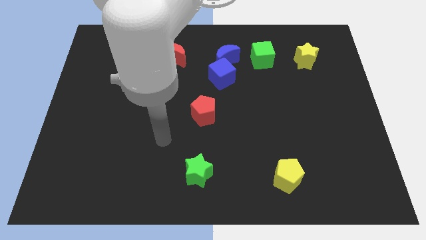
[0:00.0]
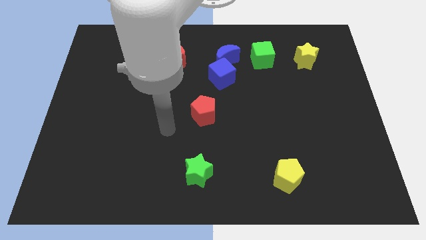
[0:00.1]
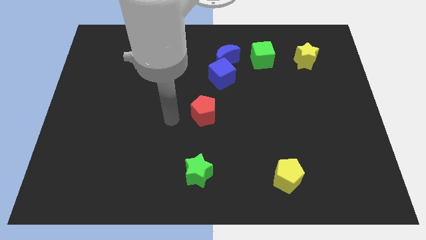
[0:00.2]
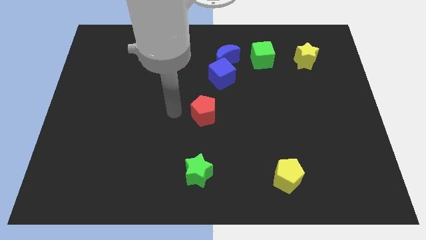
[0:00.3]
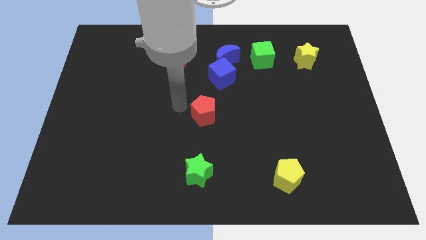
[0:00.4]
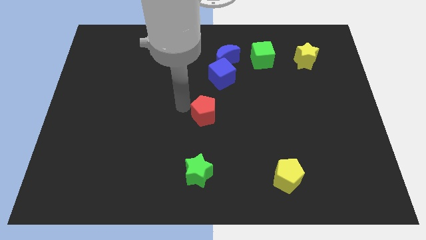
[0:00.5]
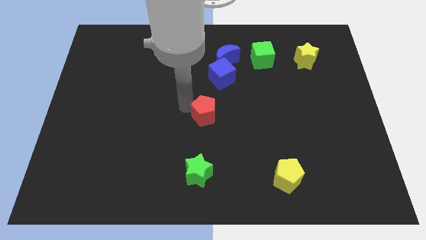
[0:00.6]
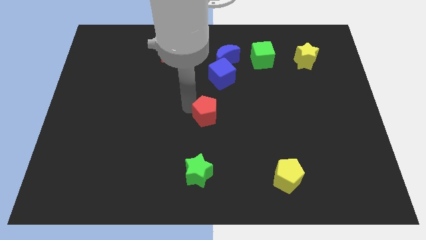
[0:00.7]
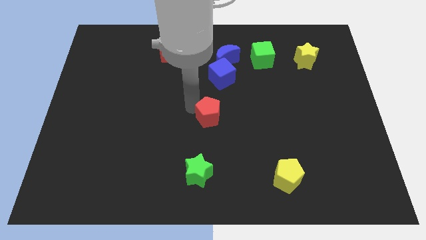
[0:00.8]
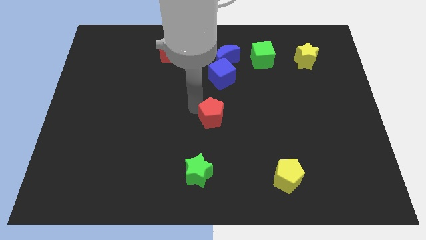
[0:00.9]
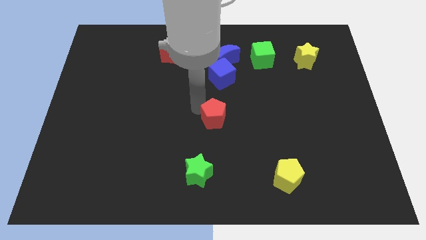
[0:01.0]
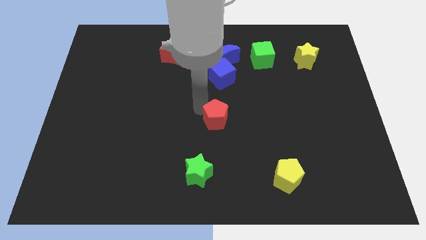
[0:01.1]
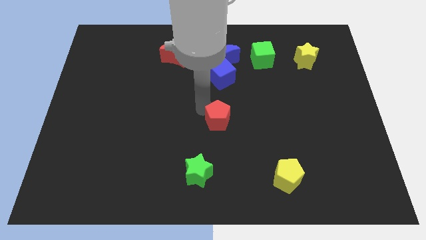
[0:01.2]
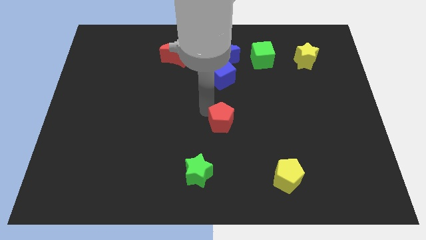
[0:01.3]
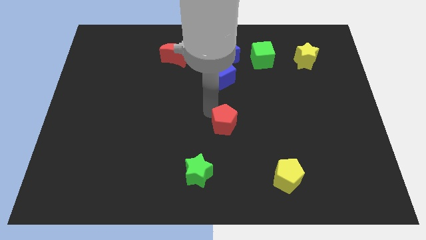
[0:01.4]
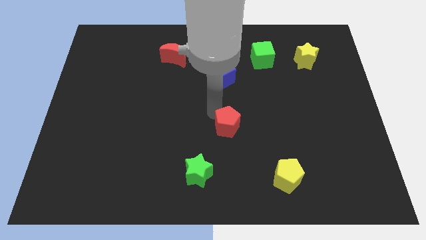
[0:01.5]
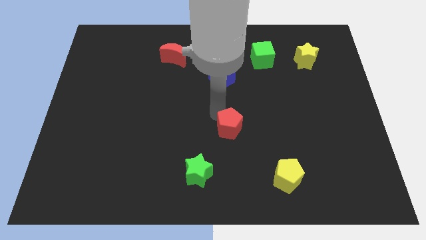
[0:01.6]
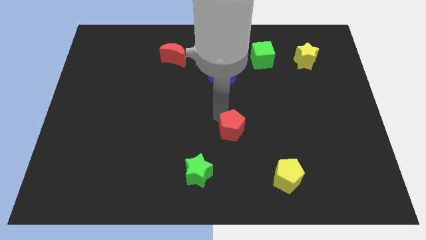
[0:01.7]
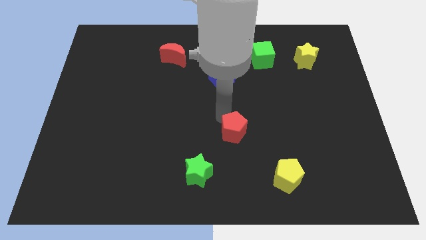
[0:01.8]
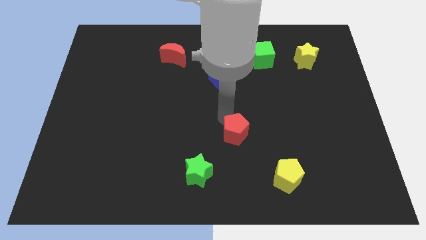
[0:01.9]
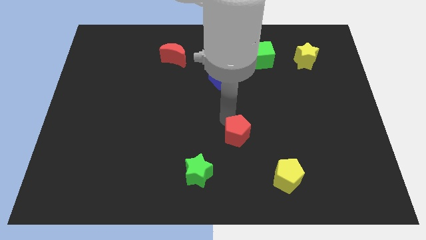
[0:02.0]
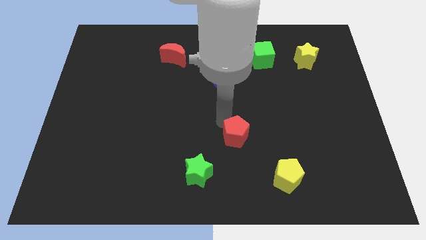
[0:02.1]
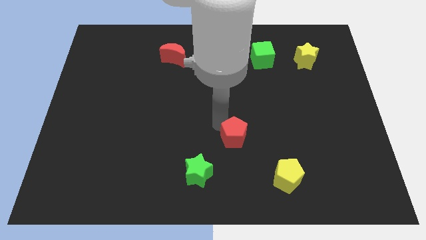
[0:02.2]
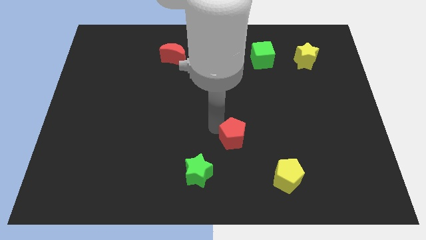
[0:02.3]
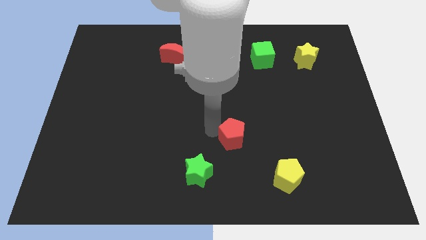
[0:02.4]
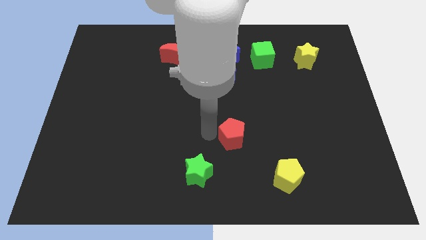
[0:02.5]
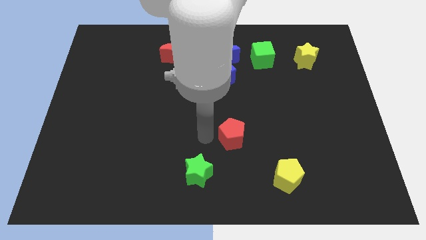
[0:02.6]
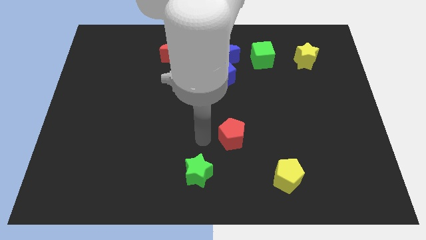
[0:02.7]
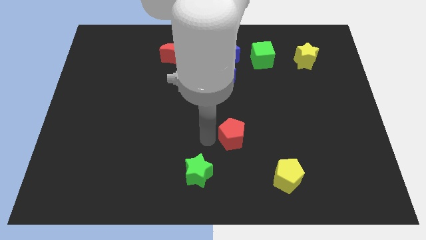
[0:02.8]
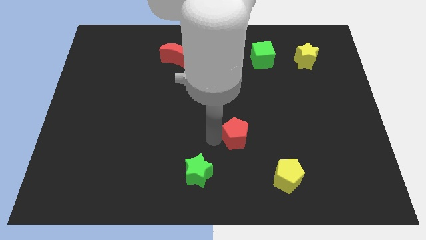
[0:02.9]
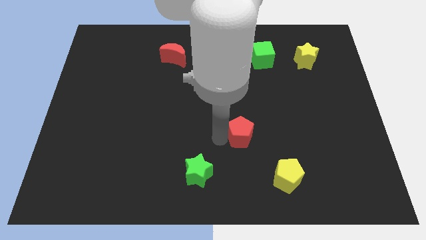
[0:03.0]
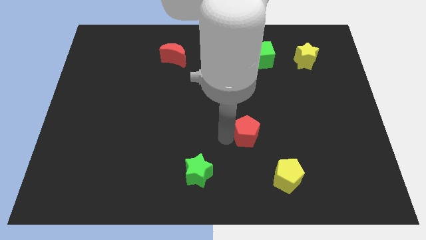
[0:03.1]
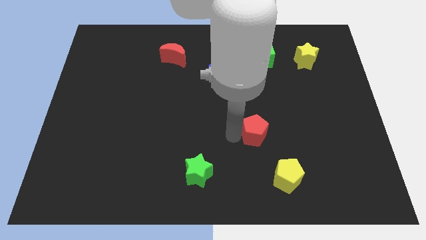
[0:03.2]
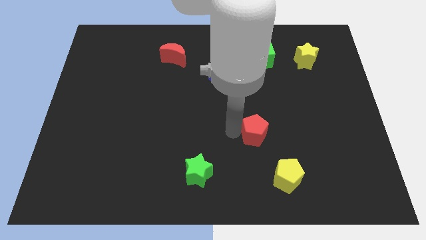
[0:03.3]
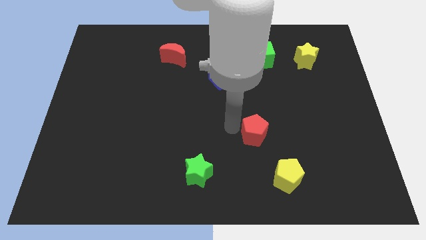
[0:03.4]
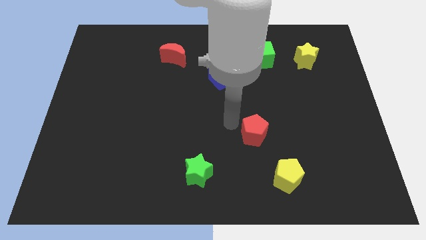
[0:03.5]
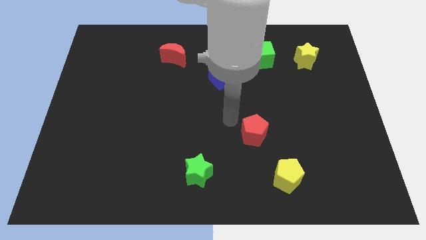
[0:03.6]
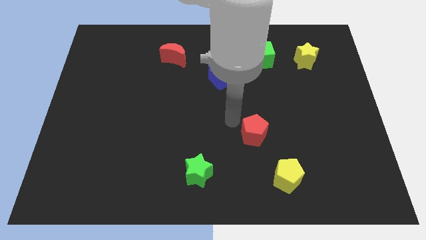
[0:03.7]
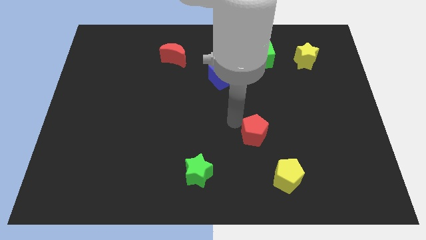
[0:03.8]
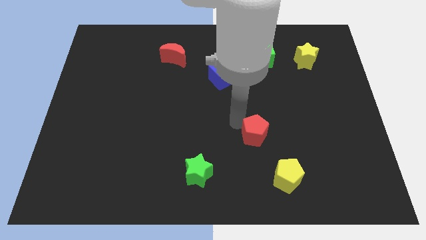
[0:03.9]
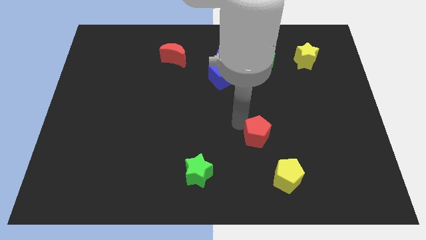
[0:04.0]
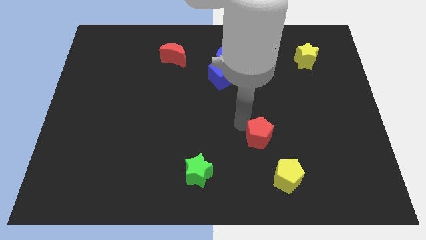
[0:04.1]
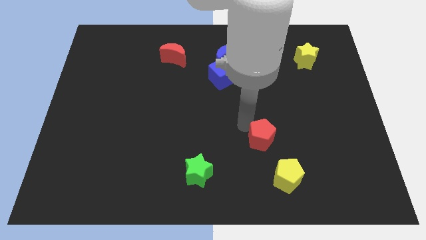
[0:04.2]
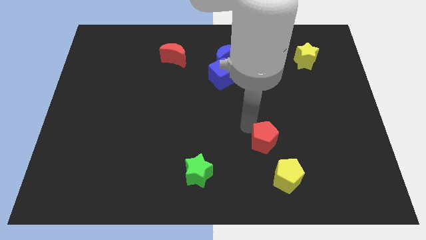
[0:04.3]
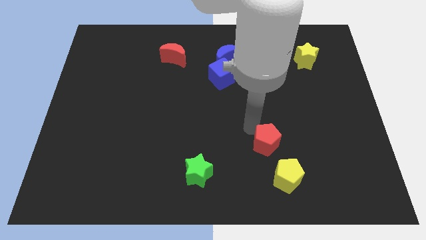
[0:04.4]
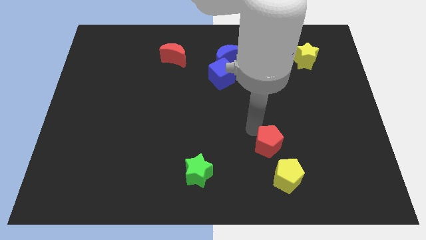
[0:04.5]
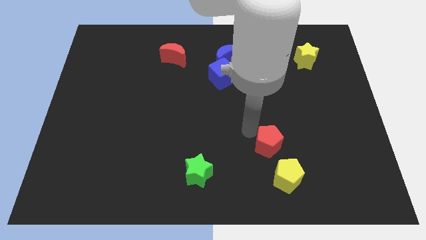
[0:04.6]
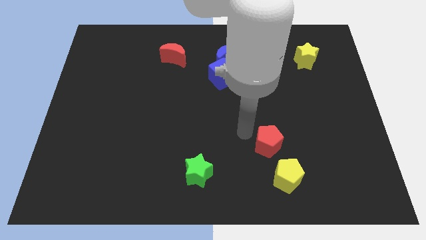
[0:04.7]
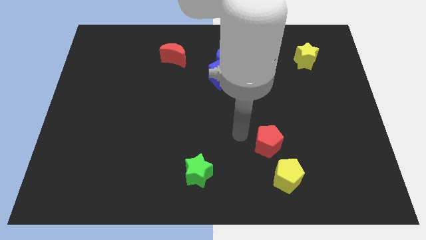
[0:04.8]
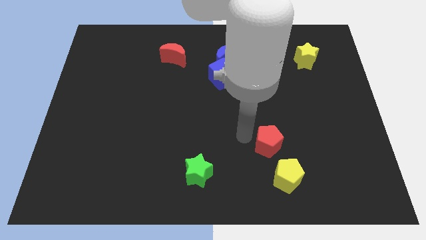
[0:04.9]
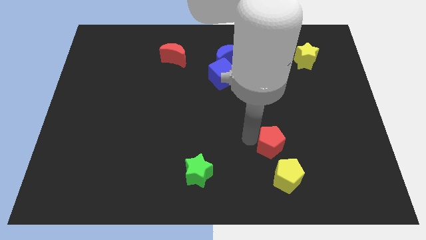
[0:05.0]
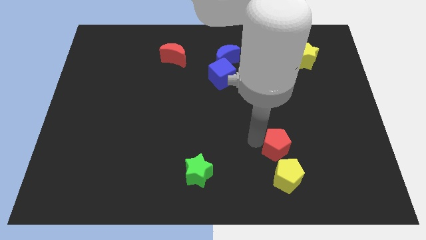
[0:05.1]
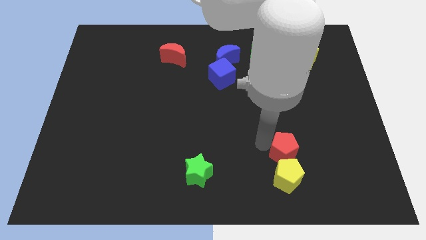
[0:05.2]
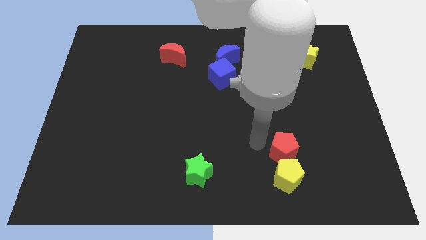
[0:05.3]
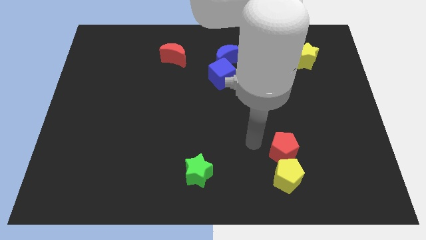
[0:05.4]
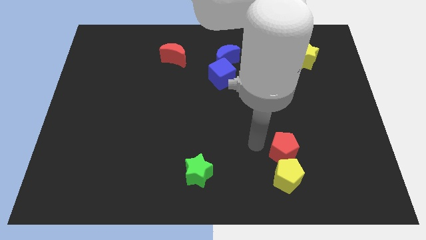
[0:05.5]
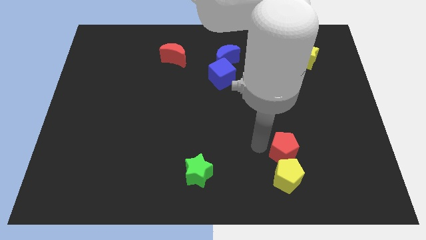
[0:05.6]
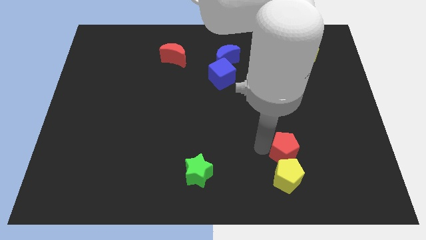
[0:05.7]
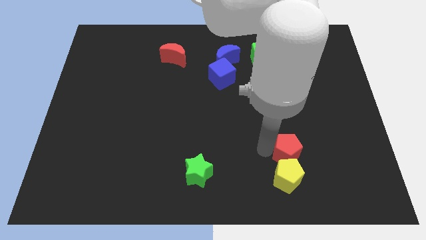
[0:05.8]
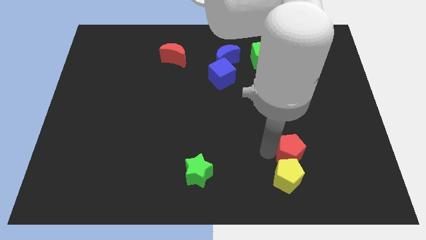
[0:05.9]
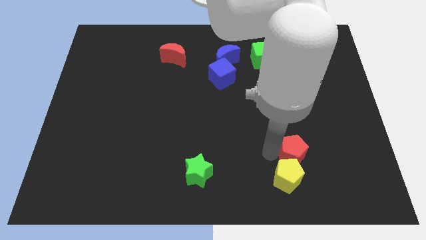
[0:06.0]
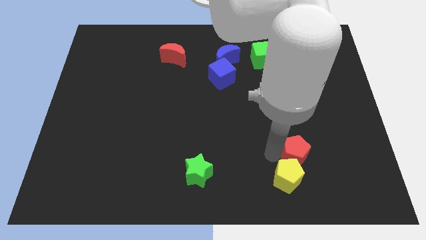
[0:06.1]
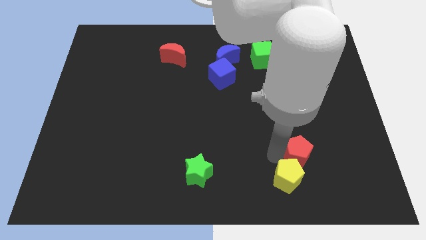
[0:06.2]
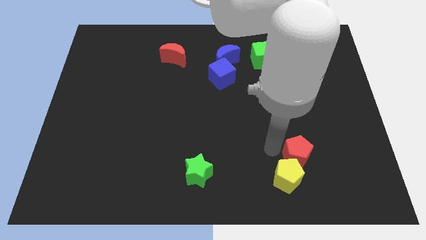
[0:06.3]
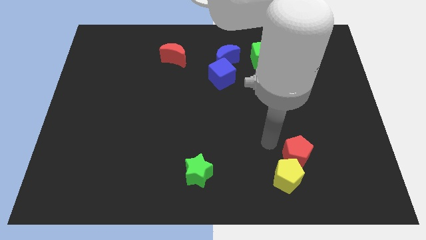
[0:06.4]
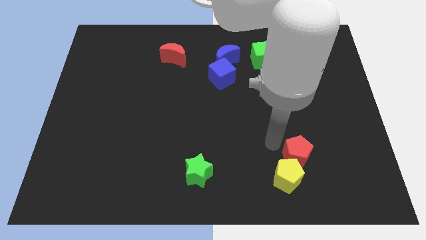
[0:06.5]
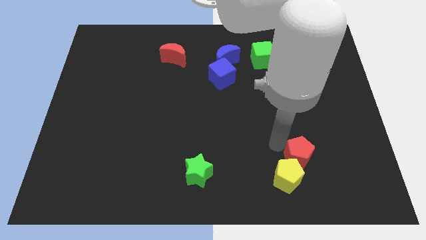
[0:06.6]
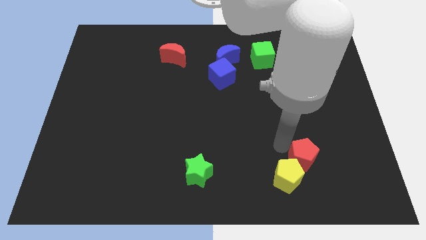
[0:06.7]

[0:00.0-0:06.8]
slide the red pentagon just right of the yellow pentagon

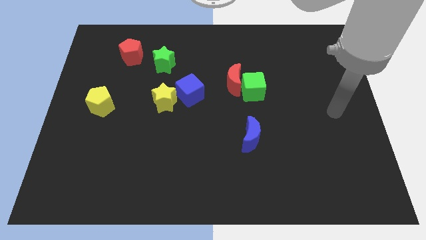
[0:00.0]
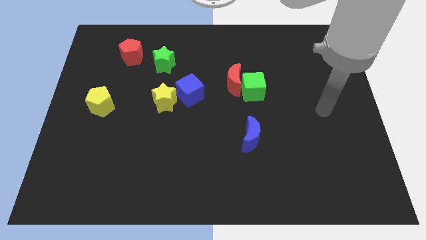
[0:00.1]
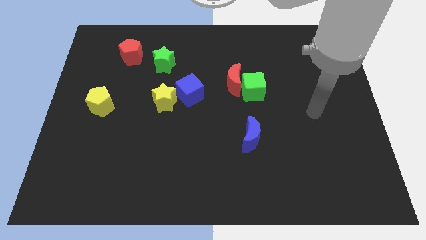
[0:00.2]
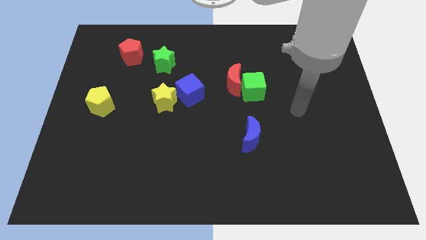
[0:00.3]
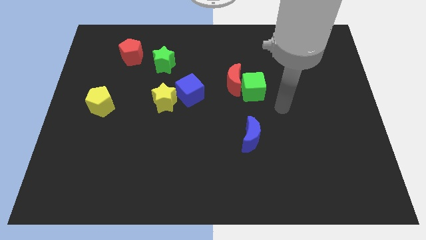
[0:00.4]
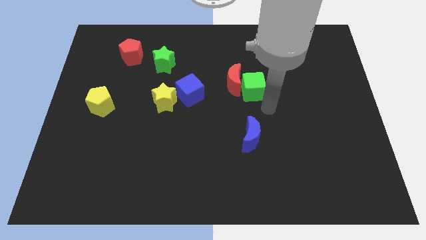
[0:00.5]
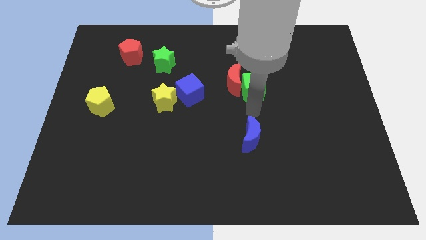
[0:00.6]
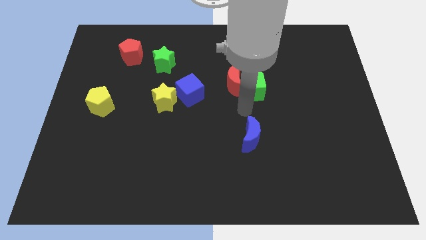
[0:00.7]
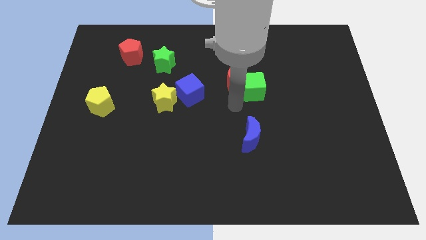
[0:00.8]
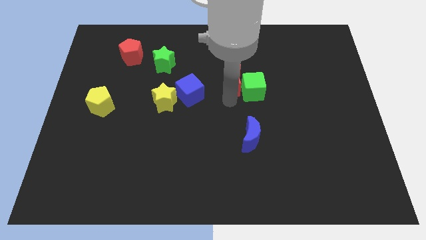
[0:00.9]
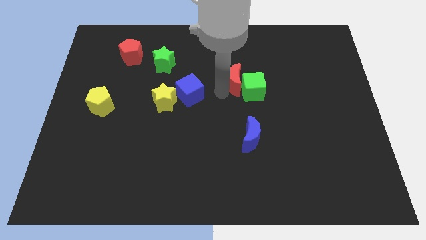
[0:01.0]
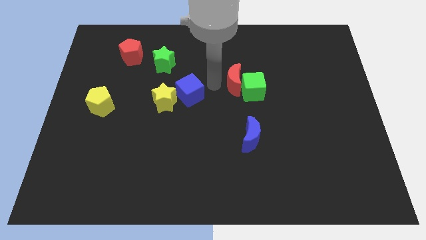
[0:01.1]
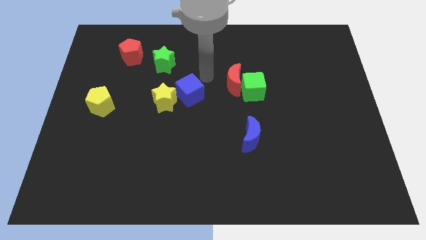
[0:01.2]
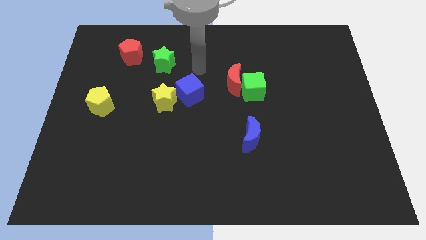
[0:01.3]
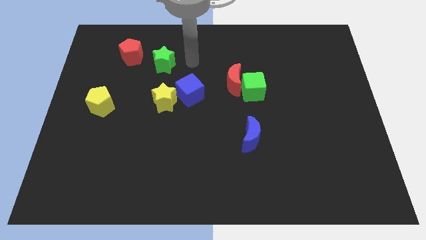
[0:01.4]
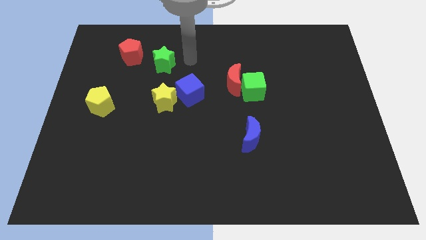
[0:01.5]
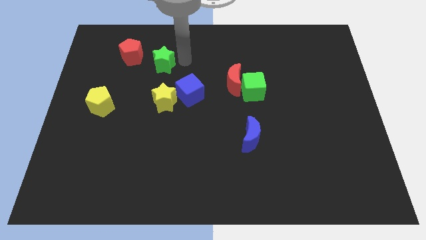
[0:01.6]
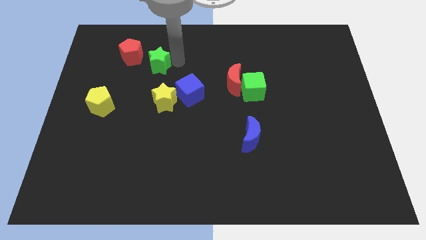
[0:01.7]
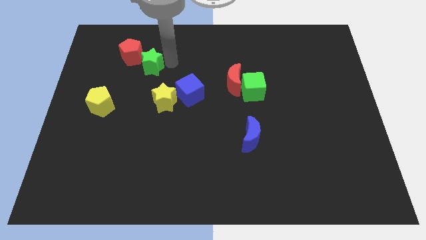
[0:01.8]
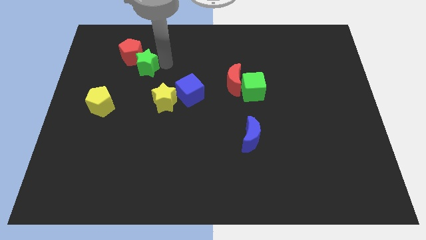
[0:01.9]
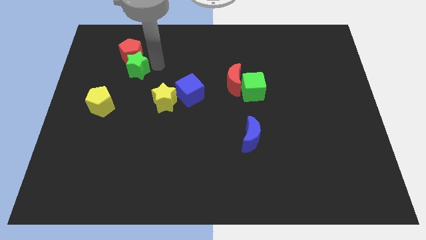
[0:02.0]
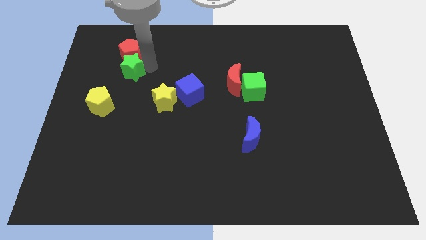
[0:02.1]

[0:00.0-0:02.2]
put the green star to the bottom left of the red pentagon
